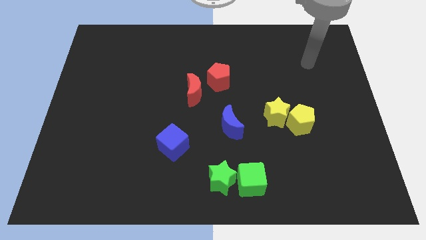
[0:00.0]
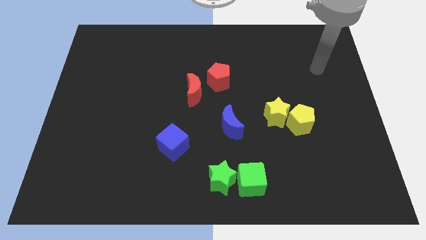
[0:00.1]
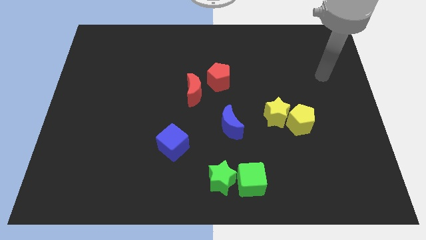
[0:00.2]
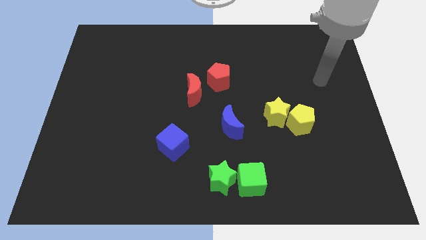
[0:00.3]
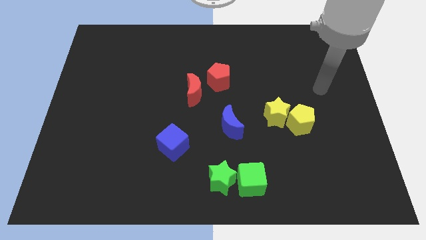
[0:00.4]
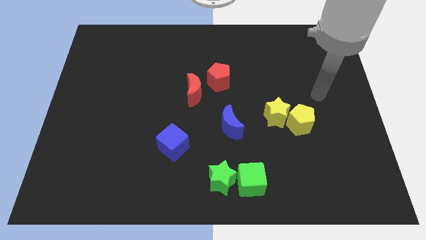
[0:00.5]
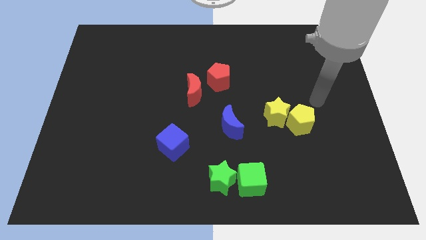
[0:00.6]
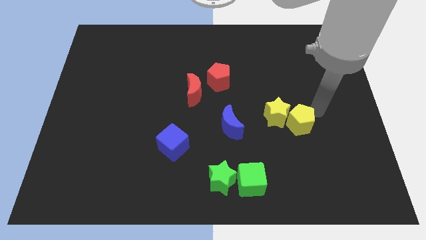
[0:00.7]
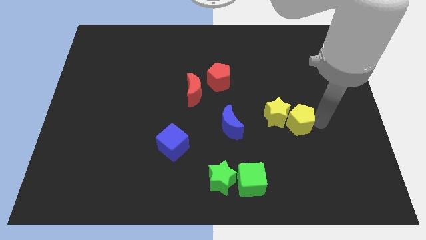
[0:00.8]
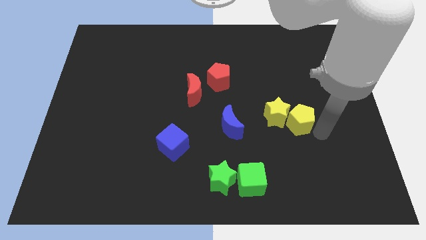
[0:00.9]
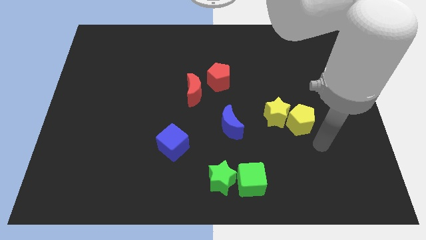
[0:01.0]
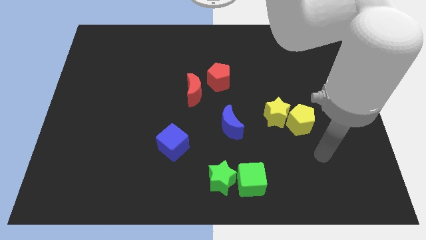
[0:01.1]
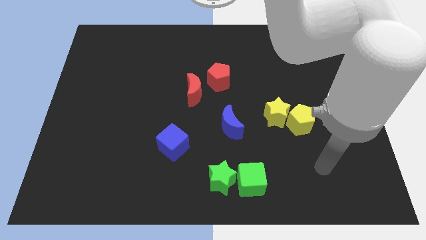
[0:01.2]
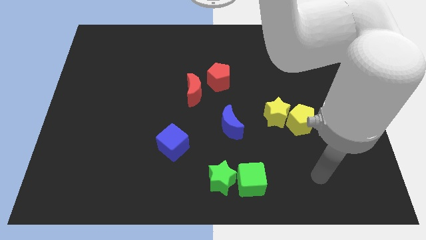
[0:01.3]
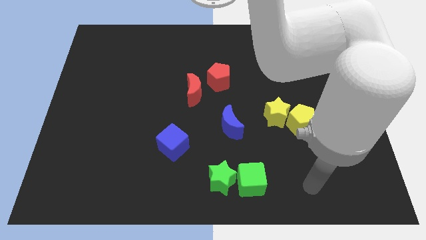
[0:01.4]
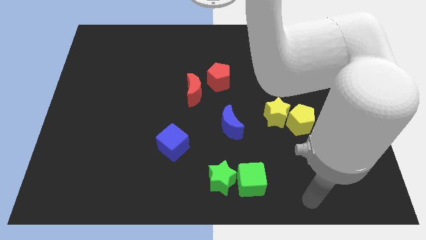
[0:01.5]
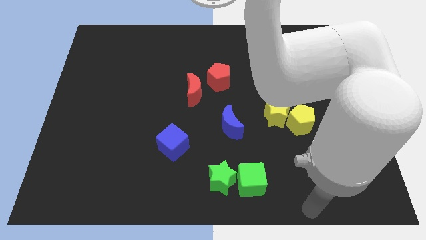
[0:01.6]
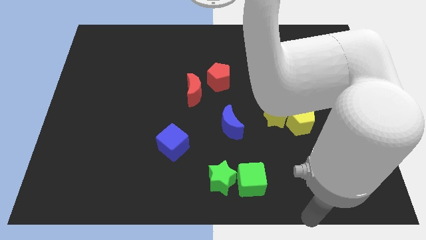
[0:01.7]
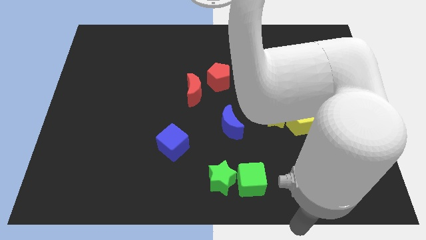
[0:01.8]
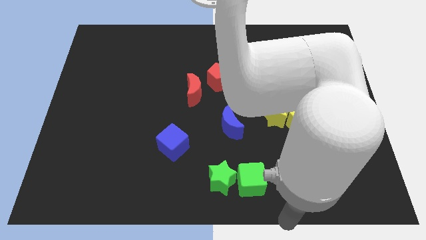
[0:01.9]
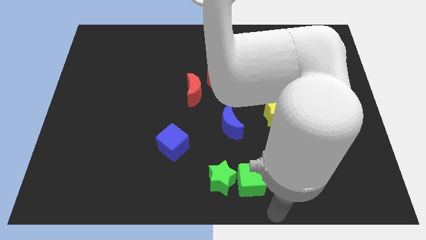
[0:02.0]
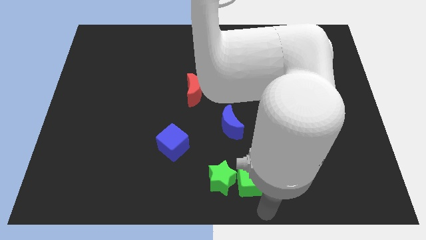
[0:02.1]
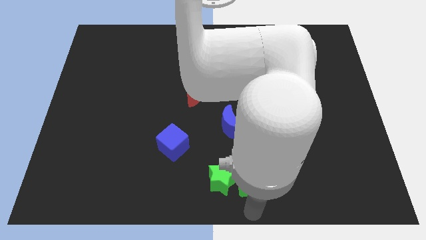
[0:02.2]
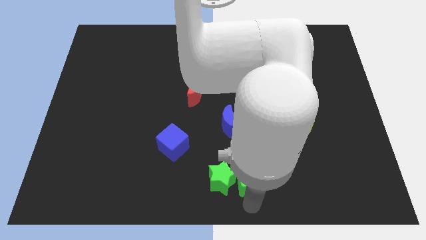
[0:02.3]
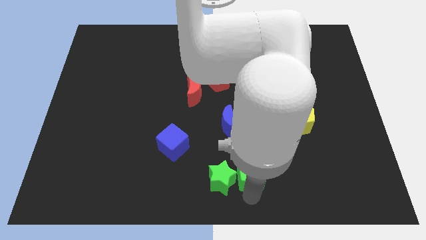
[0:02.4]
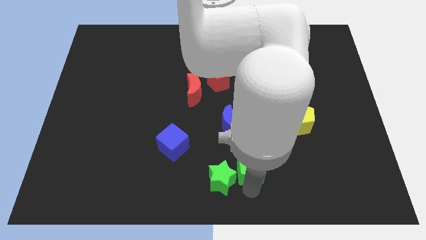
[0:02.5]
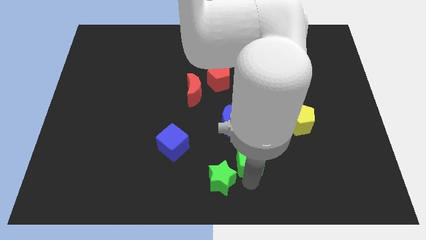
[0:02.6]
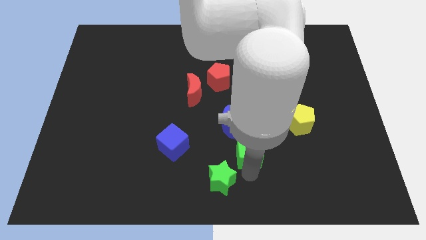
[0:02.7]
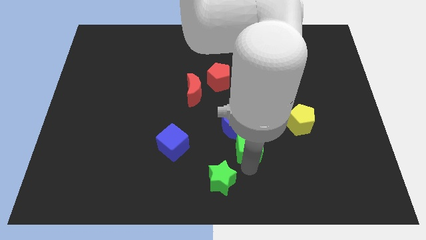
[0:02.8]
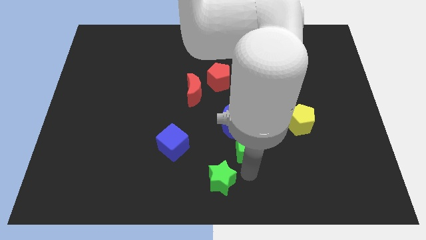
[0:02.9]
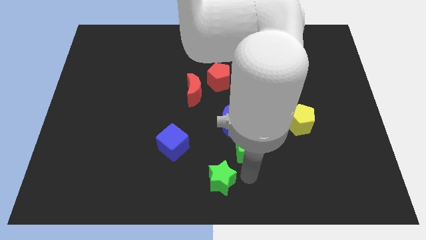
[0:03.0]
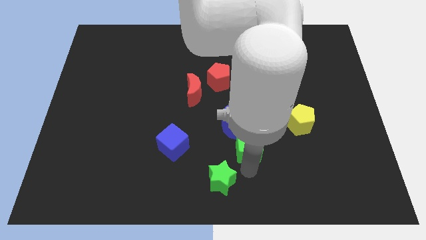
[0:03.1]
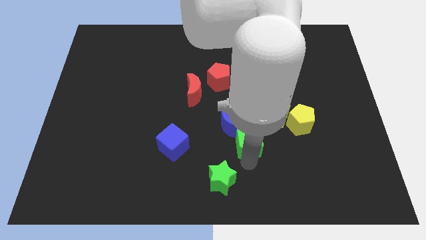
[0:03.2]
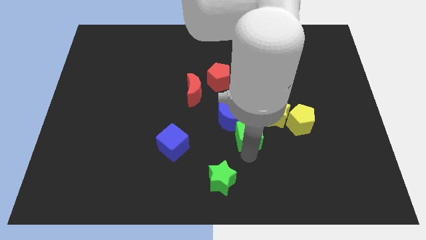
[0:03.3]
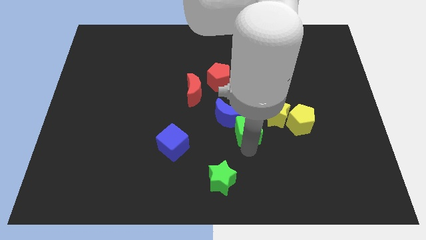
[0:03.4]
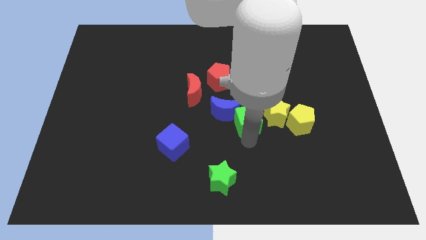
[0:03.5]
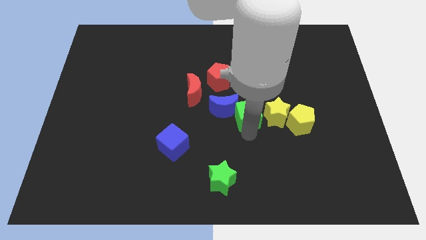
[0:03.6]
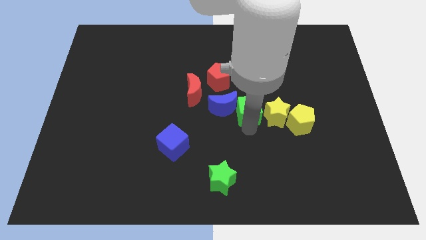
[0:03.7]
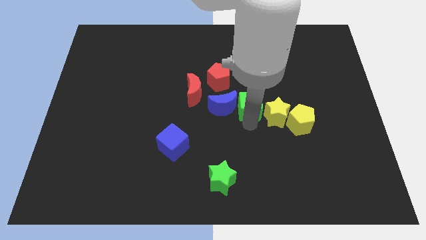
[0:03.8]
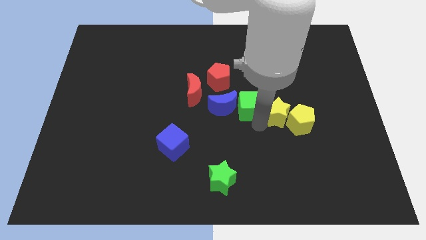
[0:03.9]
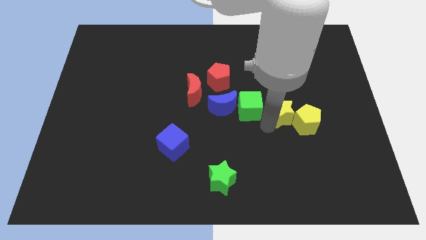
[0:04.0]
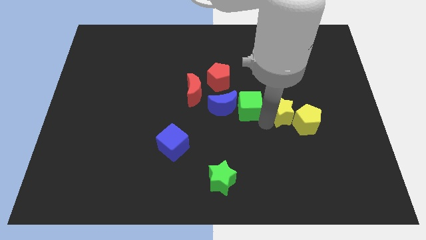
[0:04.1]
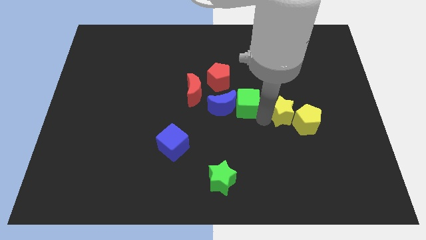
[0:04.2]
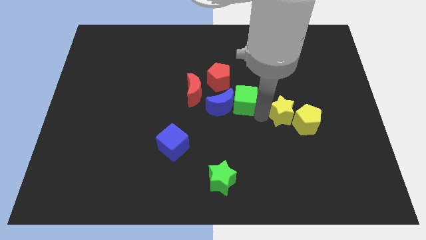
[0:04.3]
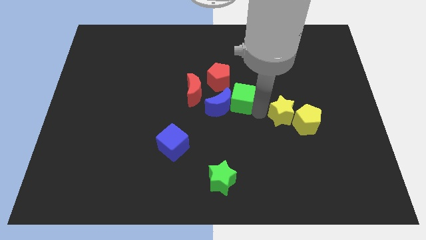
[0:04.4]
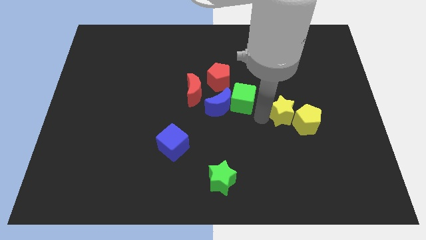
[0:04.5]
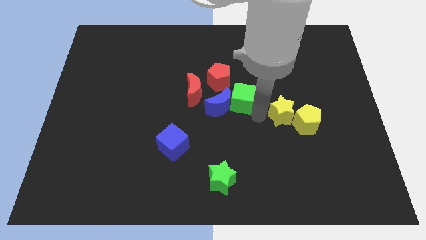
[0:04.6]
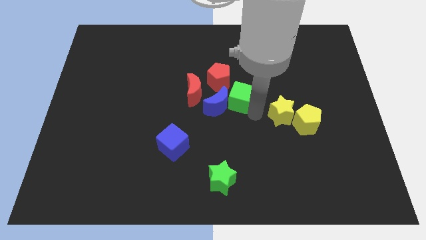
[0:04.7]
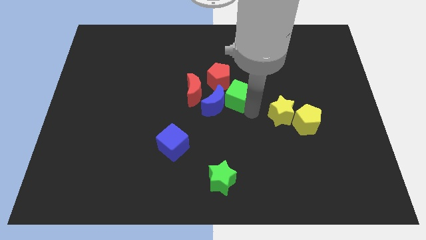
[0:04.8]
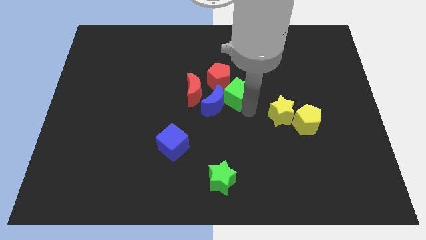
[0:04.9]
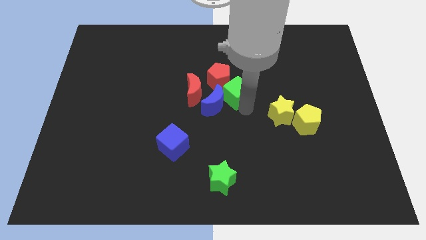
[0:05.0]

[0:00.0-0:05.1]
push the green cube to the red pentagon

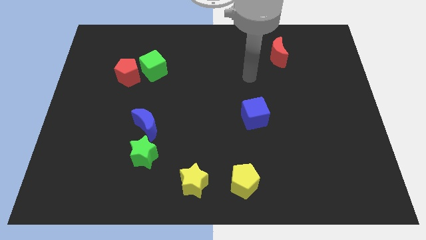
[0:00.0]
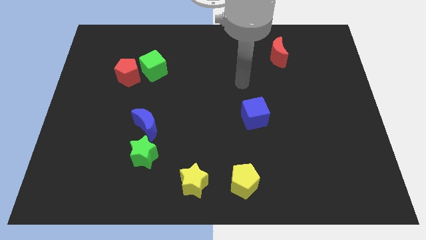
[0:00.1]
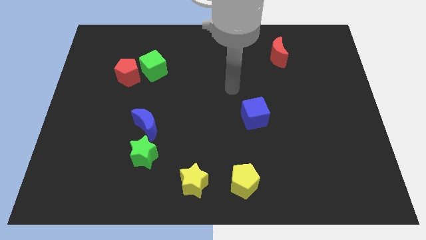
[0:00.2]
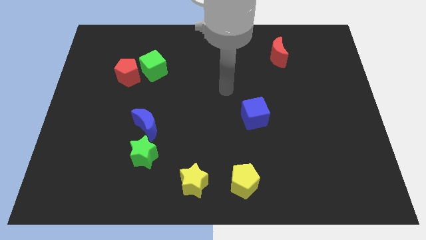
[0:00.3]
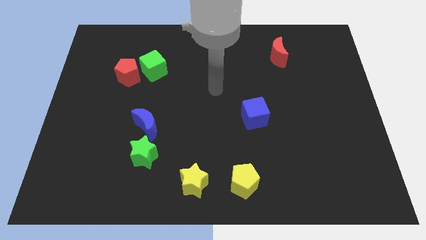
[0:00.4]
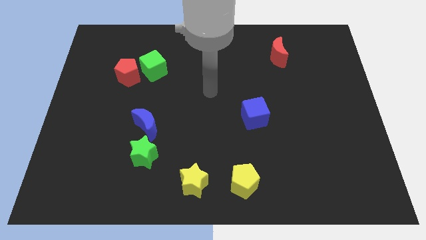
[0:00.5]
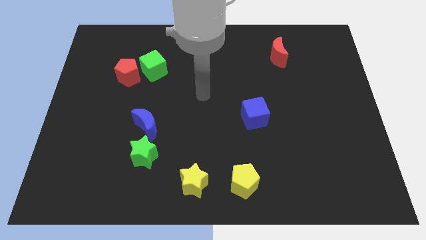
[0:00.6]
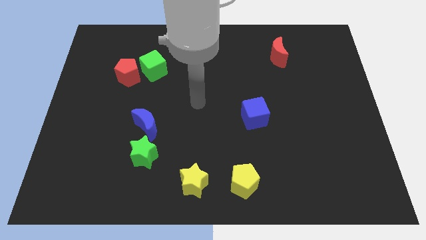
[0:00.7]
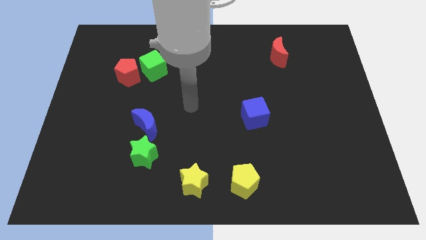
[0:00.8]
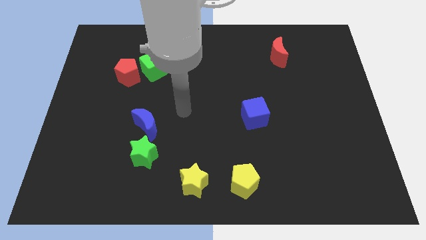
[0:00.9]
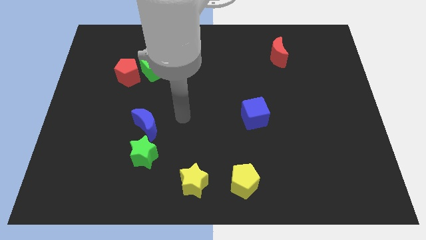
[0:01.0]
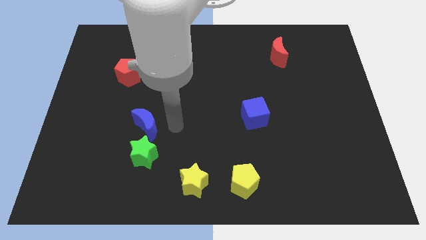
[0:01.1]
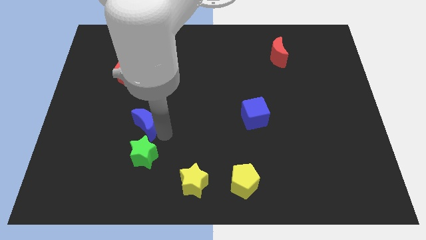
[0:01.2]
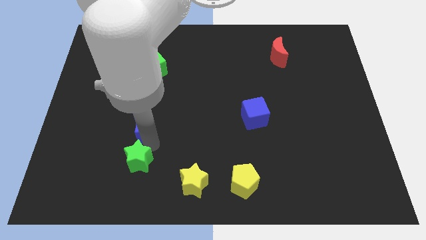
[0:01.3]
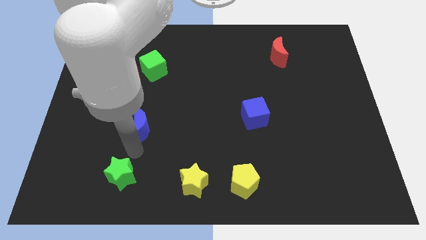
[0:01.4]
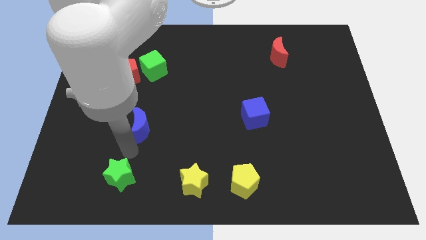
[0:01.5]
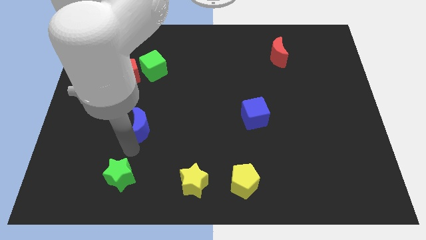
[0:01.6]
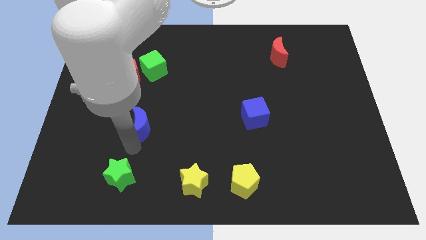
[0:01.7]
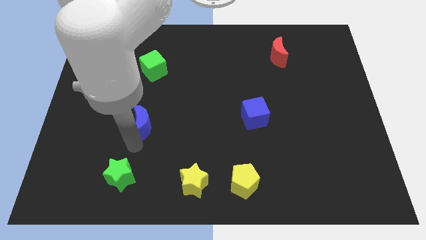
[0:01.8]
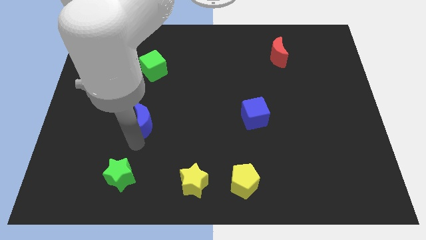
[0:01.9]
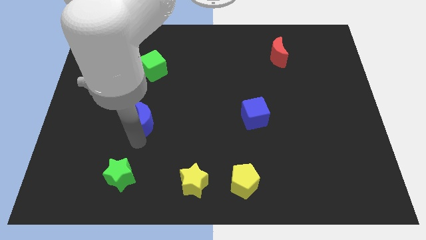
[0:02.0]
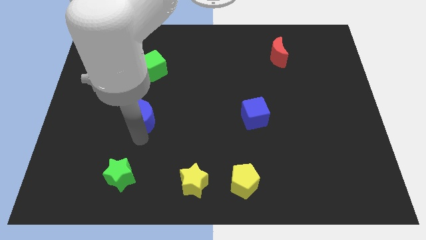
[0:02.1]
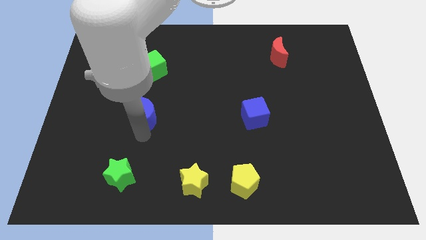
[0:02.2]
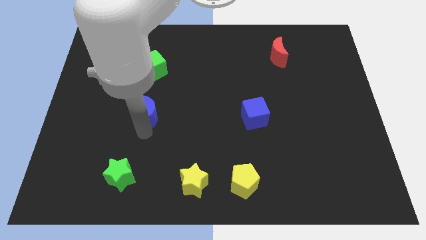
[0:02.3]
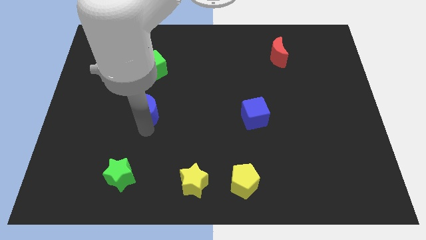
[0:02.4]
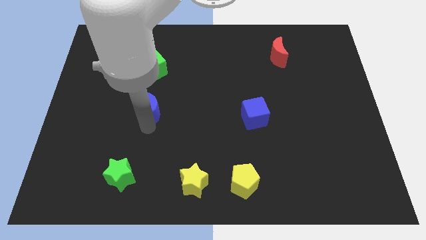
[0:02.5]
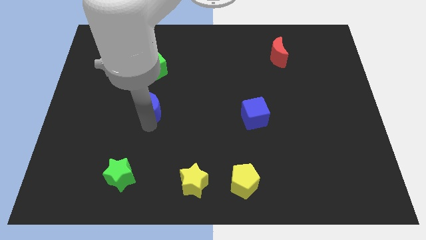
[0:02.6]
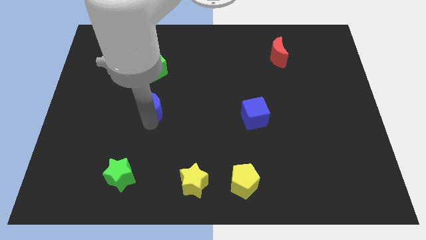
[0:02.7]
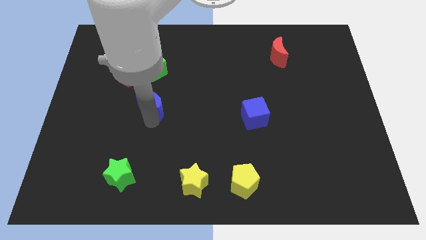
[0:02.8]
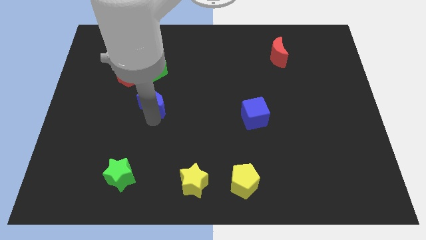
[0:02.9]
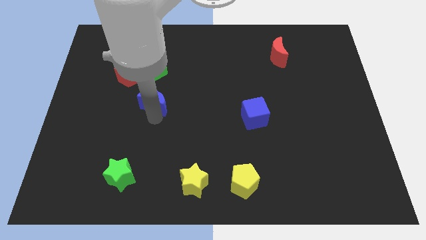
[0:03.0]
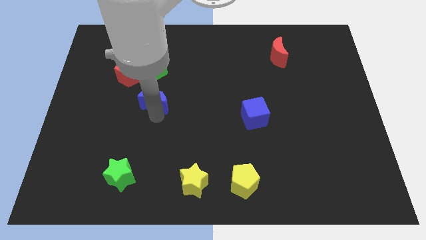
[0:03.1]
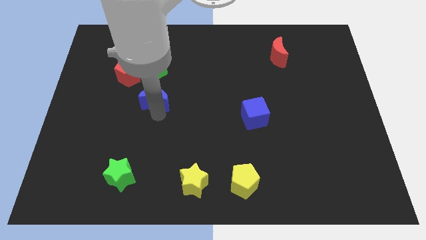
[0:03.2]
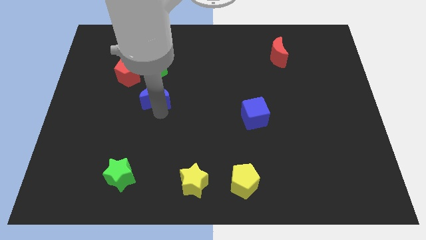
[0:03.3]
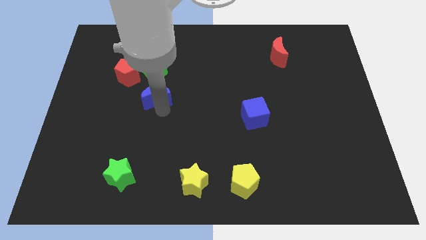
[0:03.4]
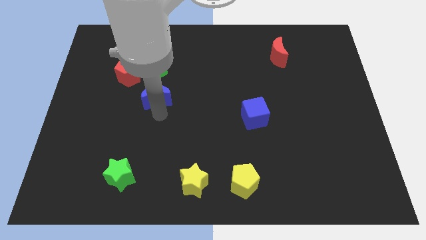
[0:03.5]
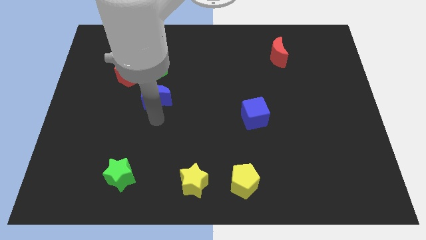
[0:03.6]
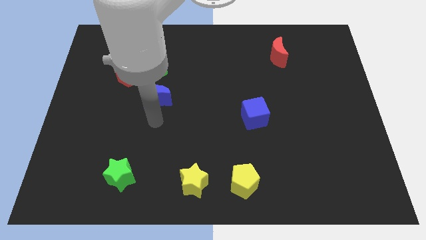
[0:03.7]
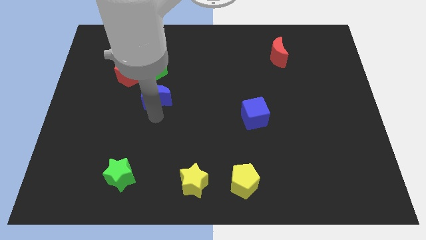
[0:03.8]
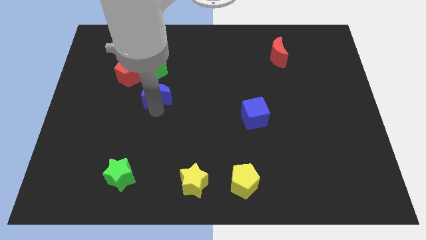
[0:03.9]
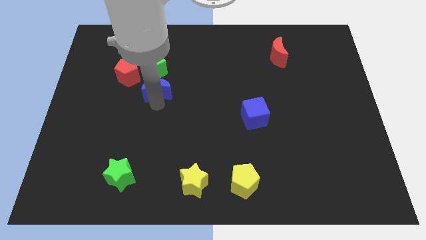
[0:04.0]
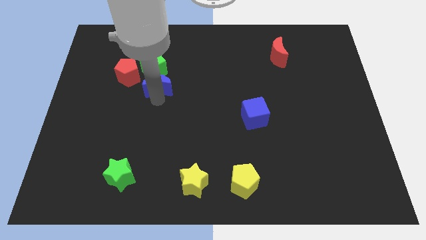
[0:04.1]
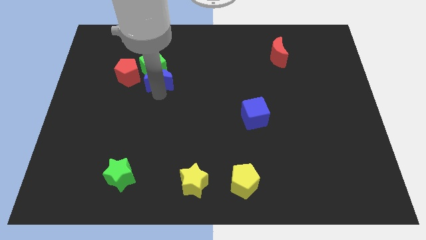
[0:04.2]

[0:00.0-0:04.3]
push the blue moon towards the green cube
